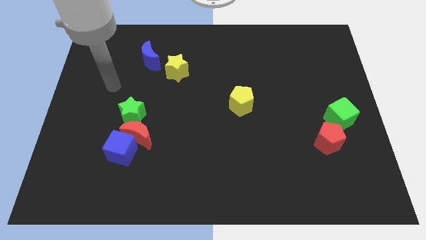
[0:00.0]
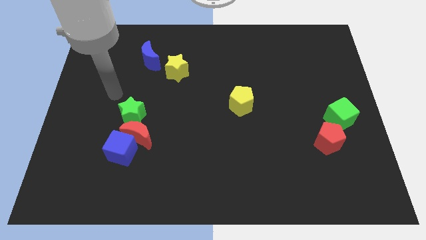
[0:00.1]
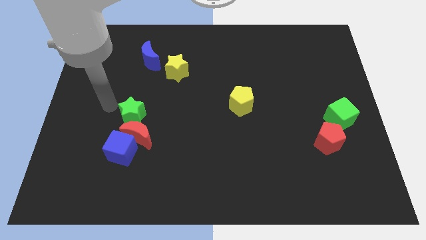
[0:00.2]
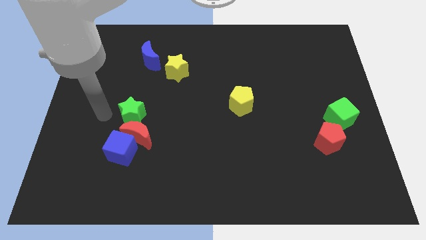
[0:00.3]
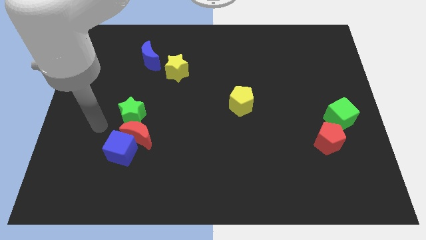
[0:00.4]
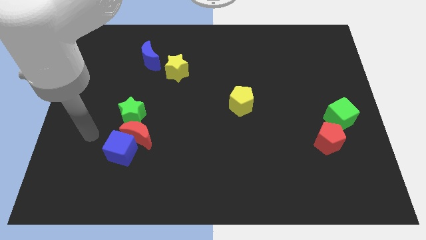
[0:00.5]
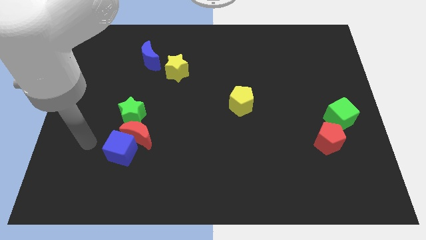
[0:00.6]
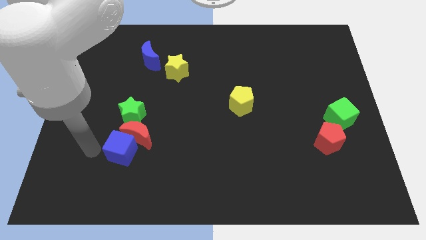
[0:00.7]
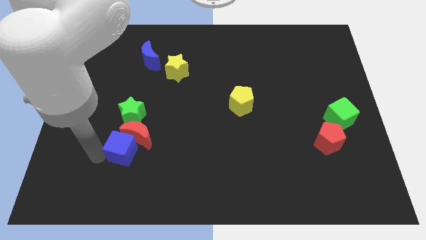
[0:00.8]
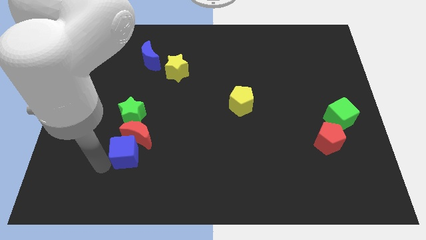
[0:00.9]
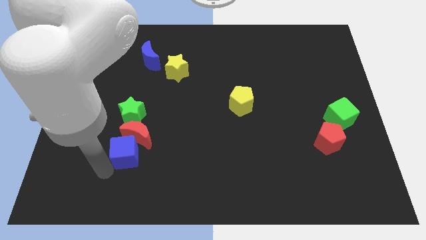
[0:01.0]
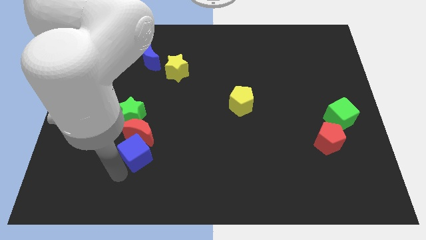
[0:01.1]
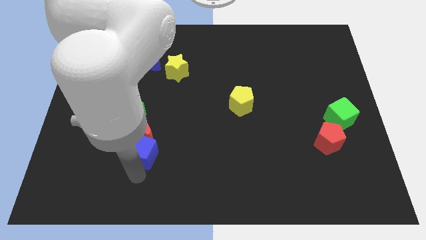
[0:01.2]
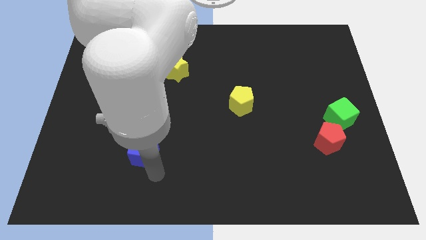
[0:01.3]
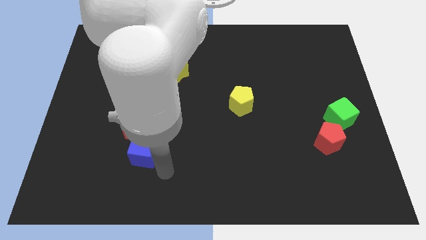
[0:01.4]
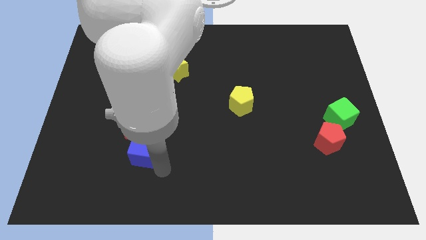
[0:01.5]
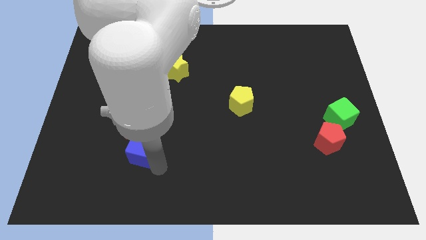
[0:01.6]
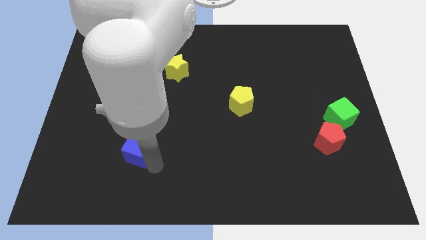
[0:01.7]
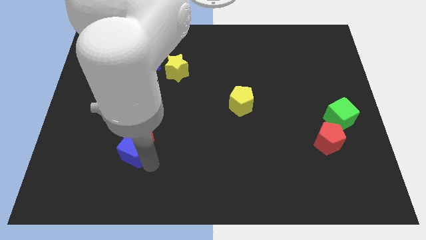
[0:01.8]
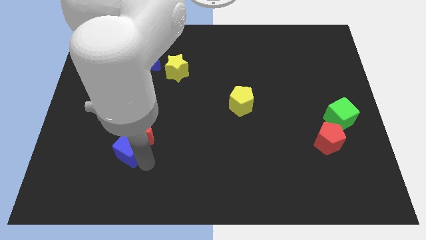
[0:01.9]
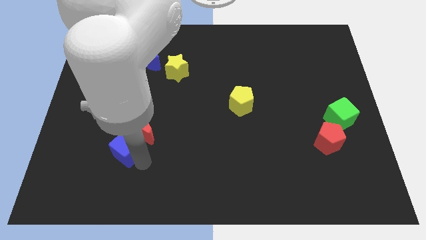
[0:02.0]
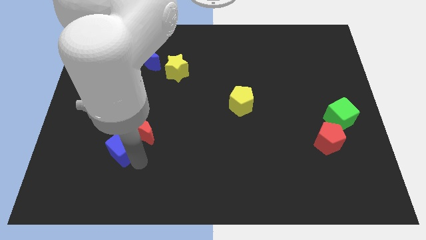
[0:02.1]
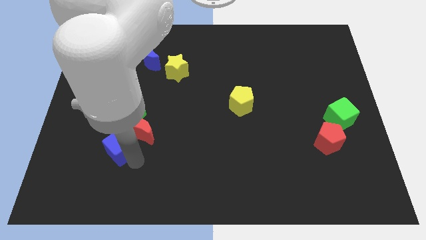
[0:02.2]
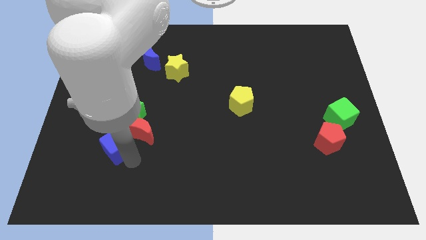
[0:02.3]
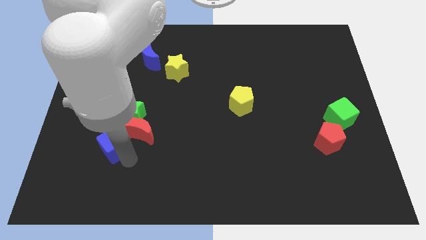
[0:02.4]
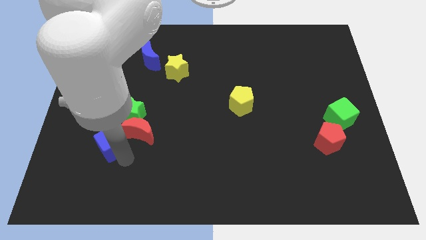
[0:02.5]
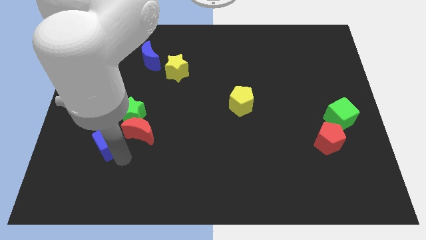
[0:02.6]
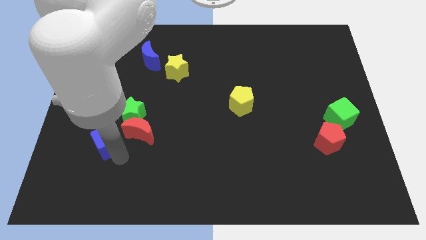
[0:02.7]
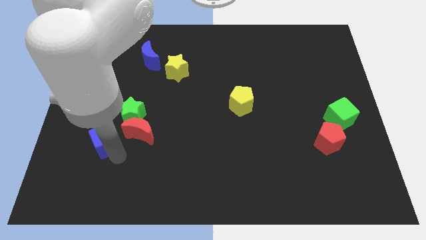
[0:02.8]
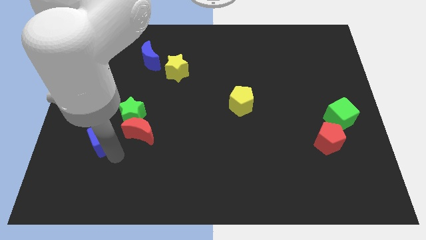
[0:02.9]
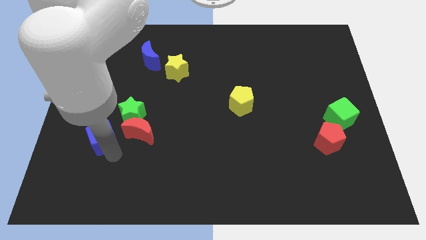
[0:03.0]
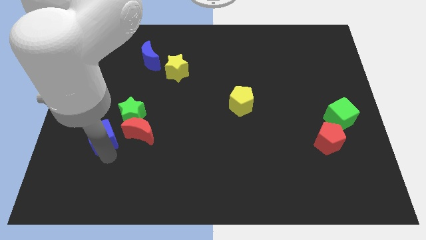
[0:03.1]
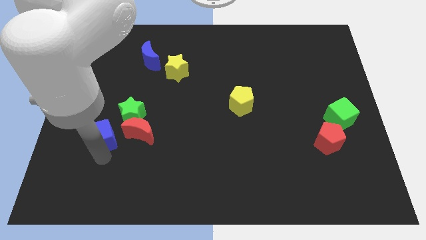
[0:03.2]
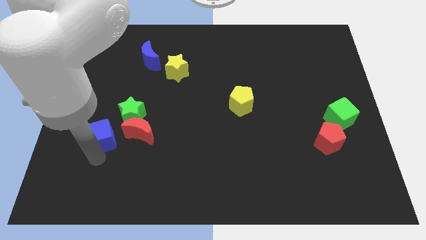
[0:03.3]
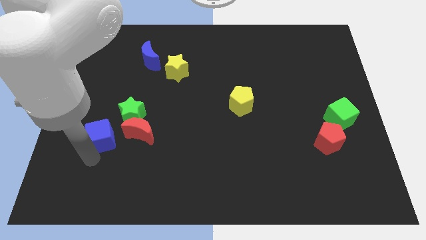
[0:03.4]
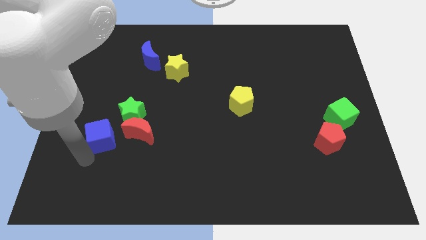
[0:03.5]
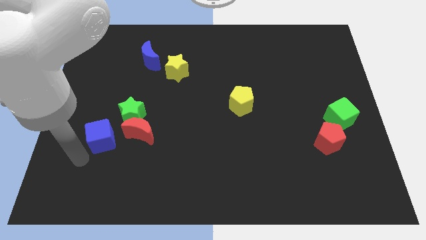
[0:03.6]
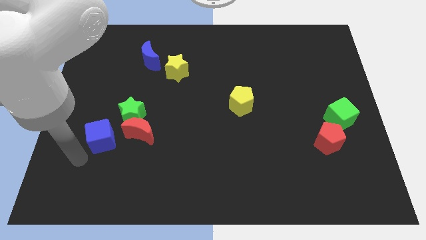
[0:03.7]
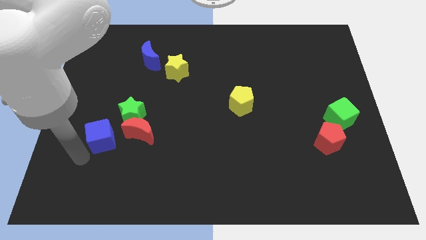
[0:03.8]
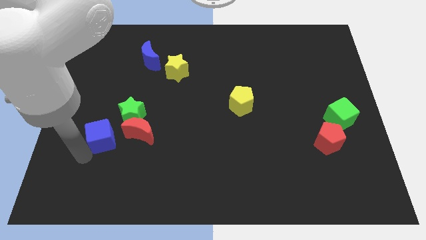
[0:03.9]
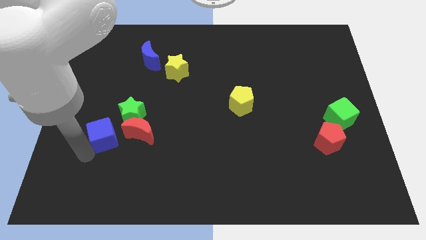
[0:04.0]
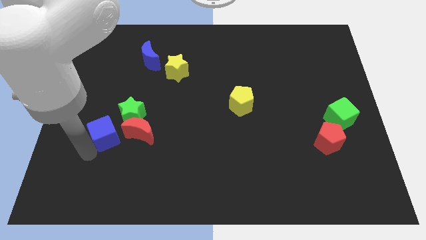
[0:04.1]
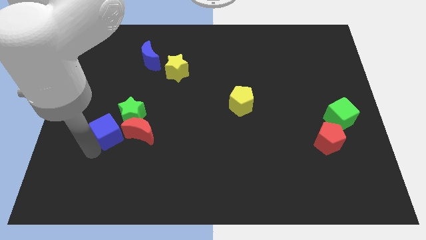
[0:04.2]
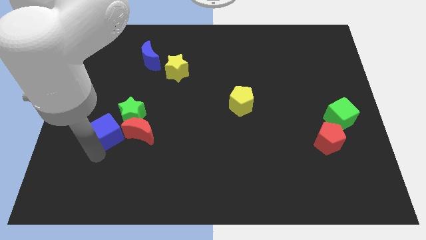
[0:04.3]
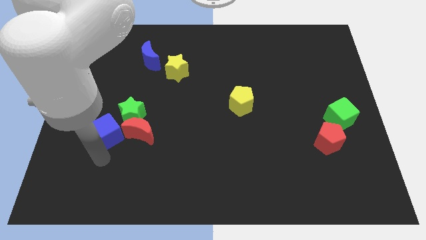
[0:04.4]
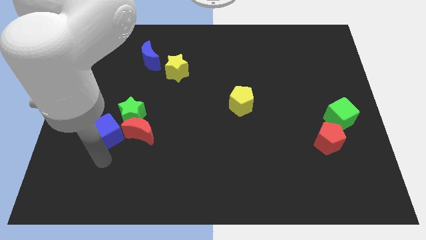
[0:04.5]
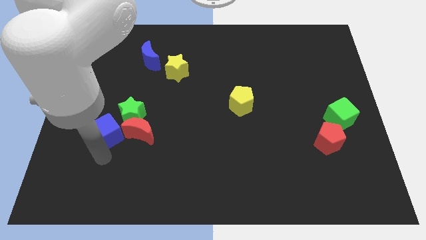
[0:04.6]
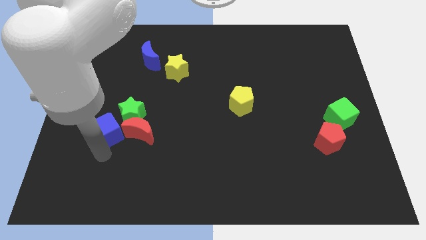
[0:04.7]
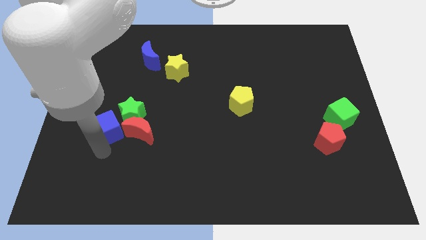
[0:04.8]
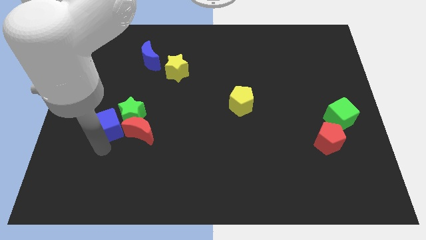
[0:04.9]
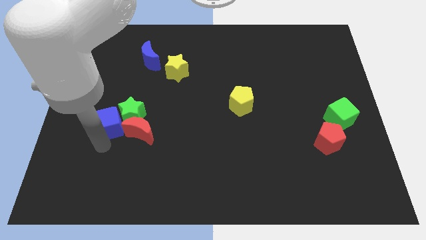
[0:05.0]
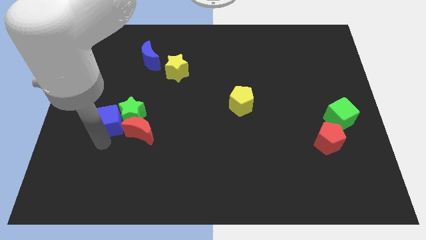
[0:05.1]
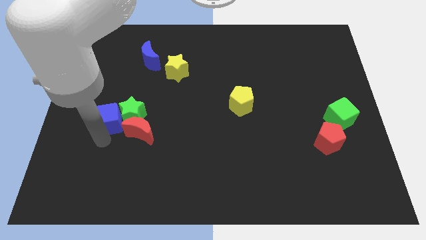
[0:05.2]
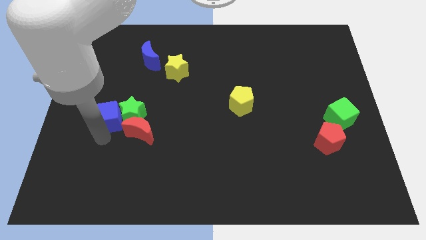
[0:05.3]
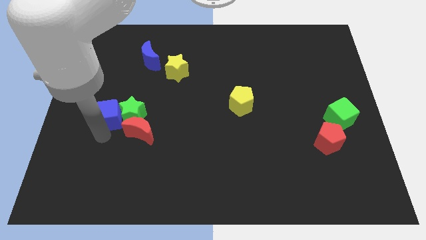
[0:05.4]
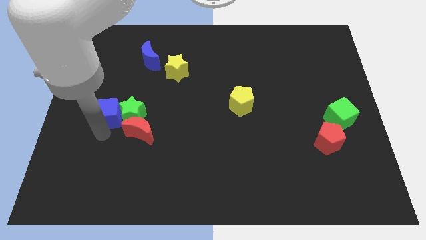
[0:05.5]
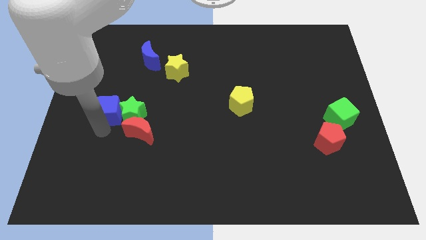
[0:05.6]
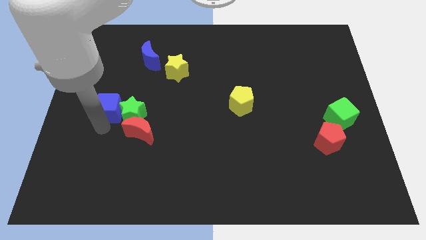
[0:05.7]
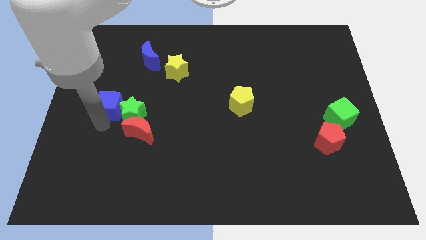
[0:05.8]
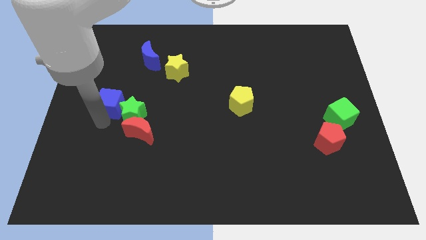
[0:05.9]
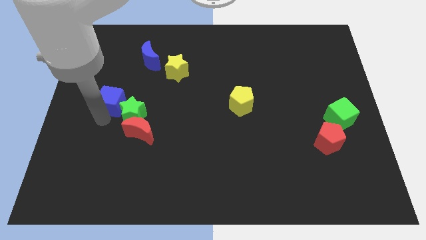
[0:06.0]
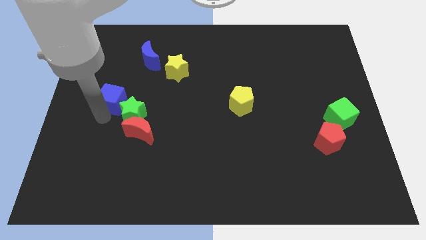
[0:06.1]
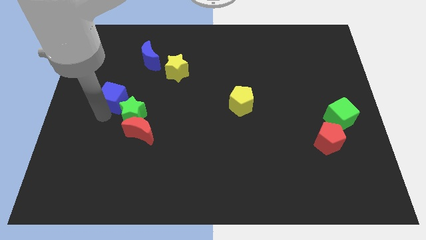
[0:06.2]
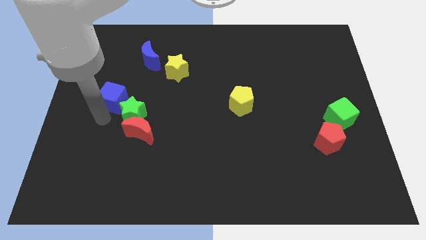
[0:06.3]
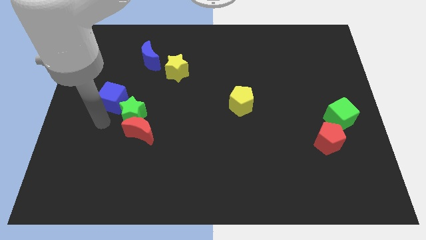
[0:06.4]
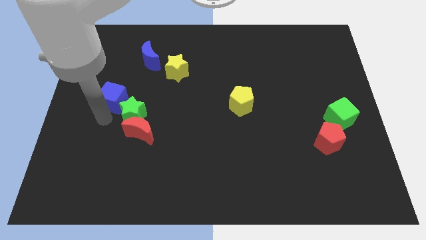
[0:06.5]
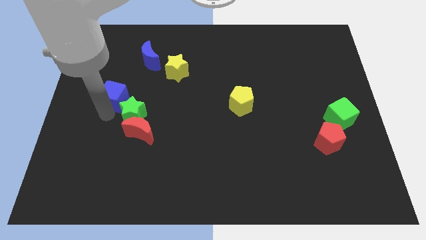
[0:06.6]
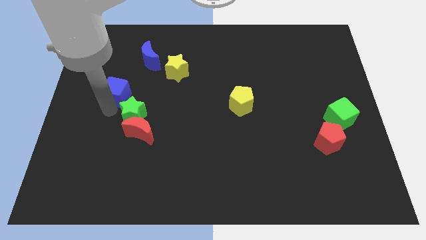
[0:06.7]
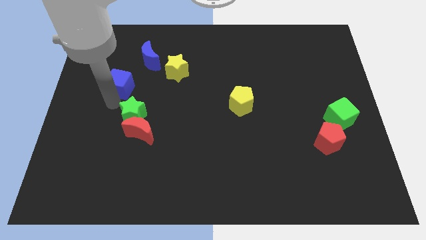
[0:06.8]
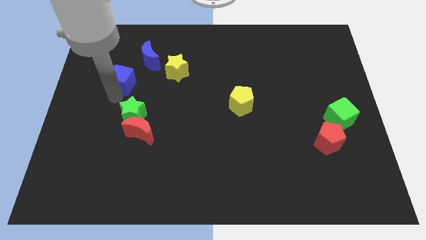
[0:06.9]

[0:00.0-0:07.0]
push the blue cube to the left of the yellow star
